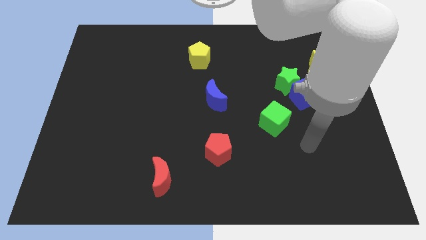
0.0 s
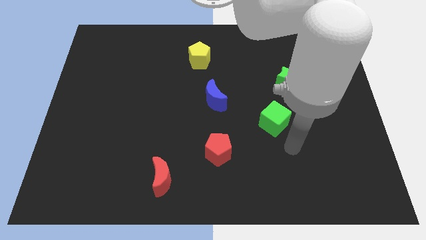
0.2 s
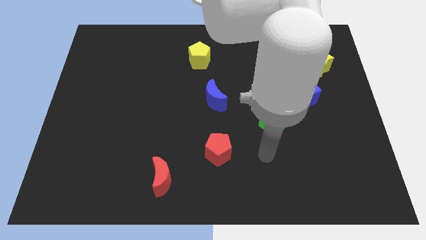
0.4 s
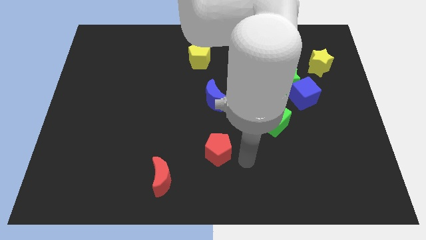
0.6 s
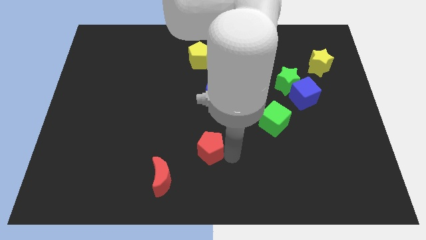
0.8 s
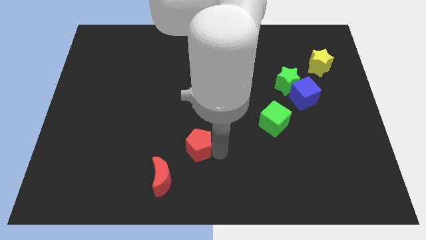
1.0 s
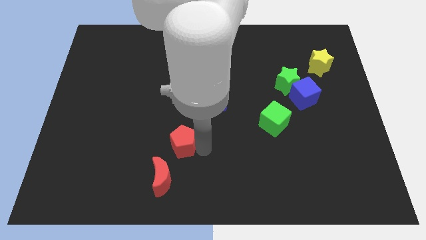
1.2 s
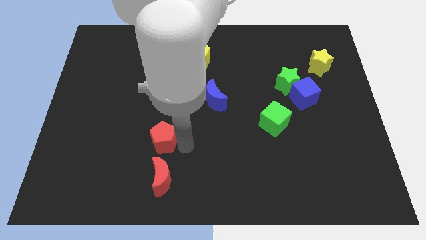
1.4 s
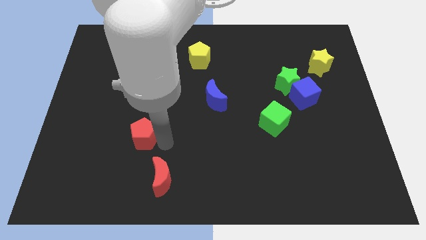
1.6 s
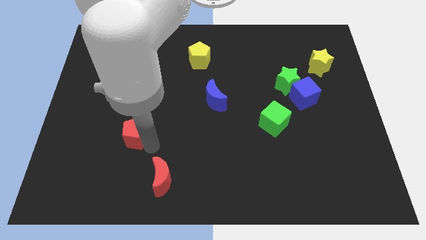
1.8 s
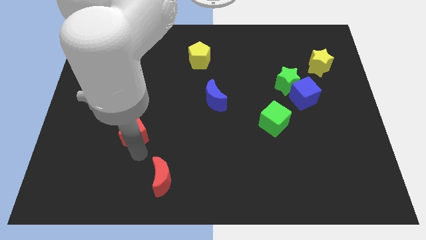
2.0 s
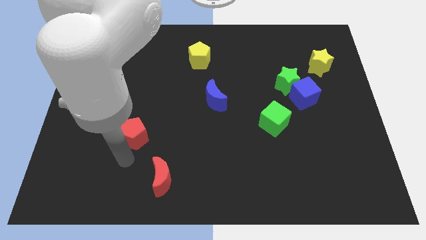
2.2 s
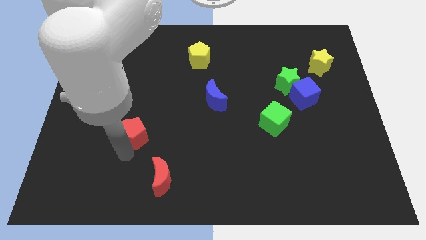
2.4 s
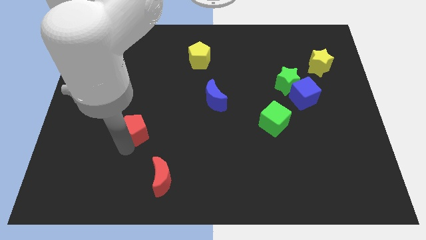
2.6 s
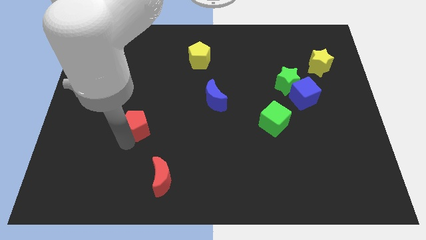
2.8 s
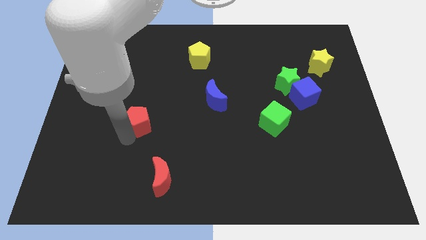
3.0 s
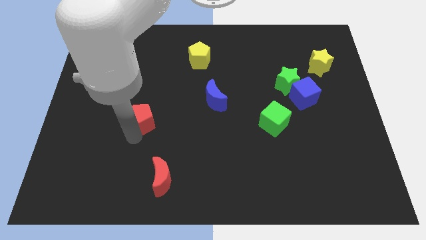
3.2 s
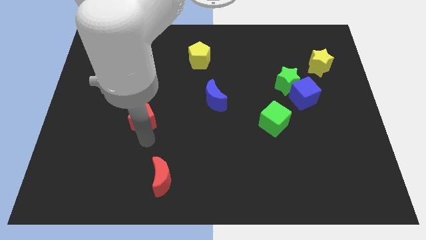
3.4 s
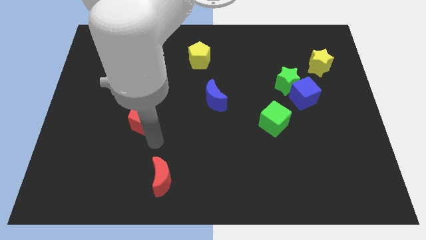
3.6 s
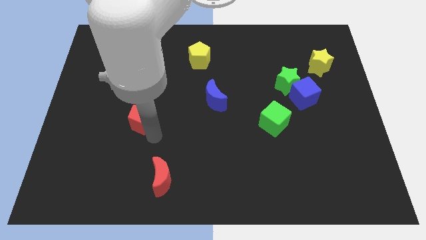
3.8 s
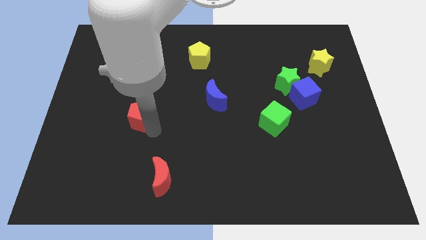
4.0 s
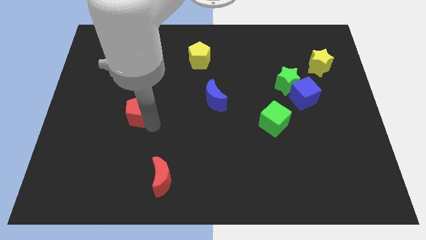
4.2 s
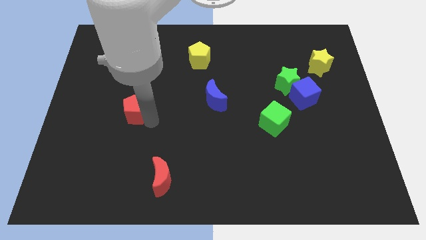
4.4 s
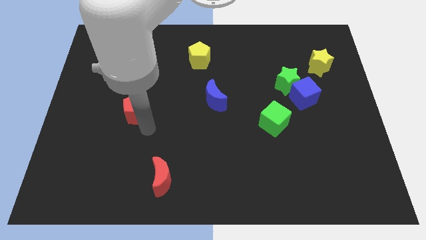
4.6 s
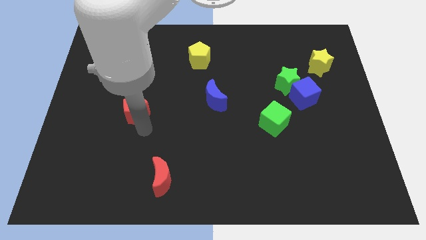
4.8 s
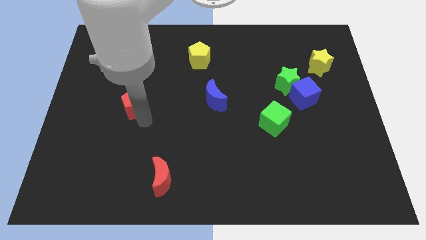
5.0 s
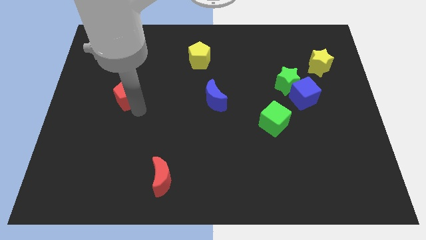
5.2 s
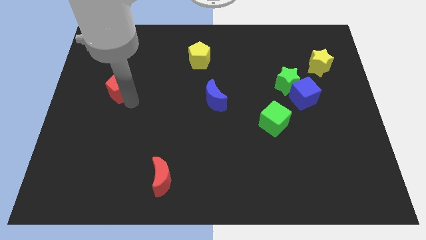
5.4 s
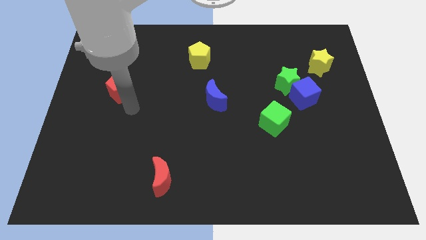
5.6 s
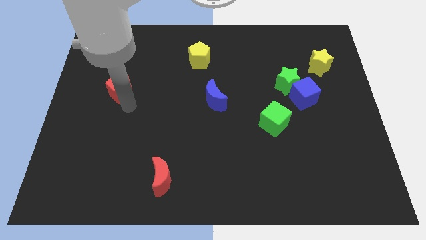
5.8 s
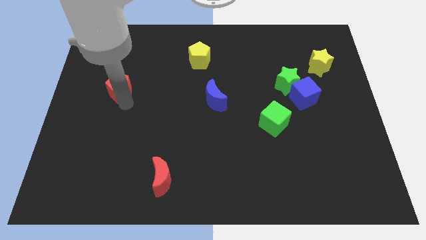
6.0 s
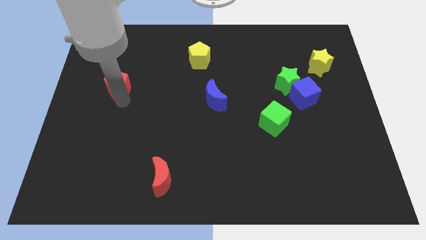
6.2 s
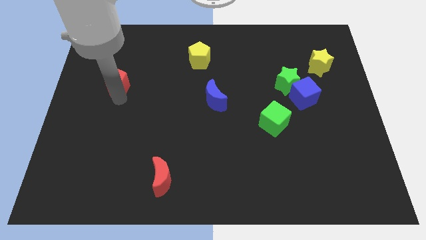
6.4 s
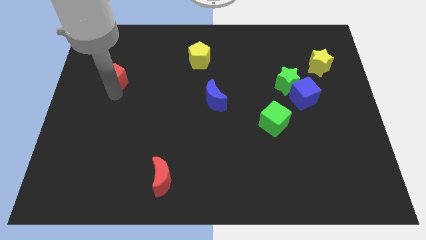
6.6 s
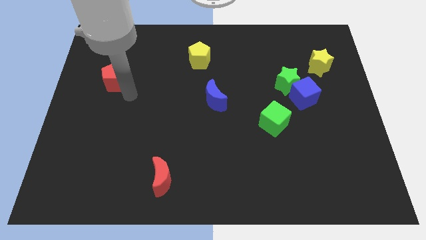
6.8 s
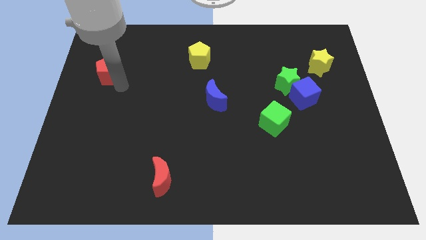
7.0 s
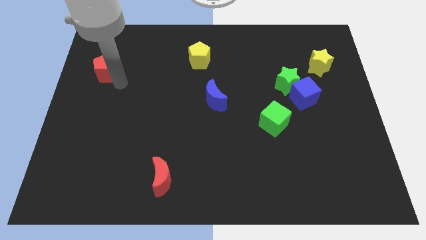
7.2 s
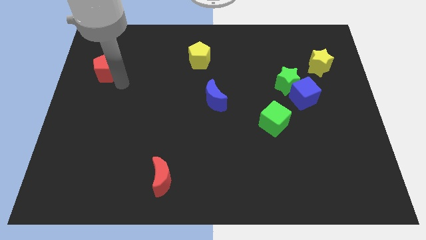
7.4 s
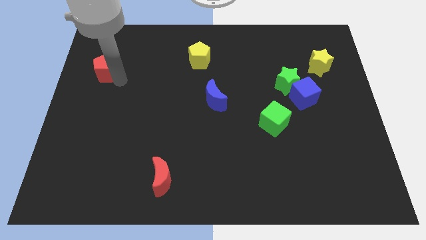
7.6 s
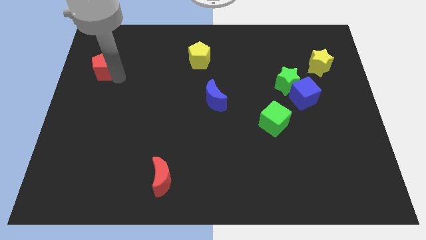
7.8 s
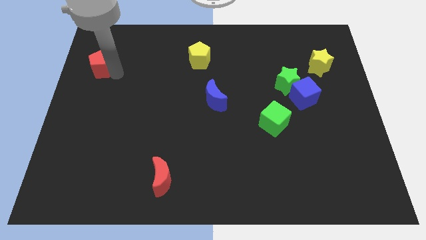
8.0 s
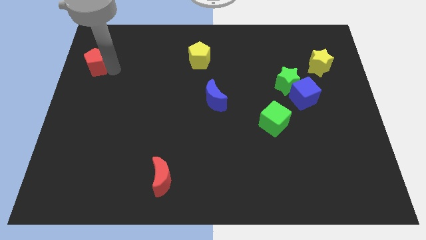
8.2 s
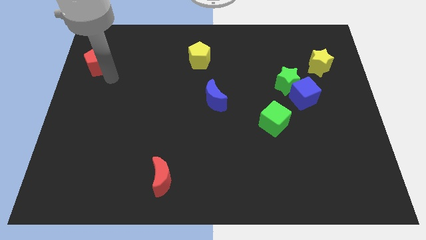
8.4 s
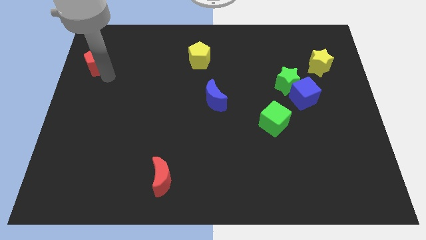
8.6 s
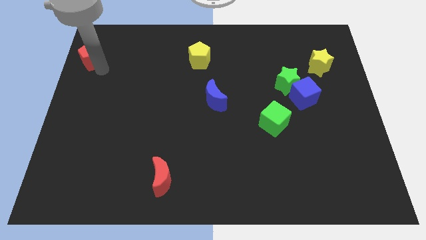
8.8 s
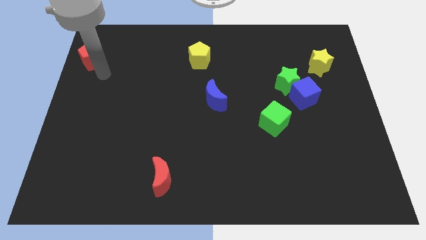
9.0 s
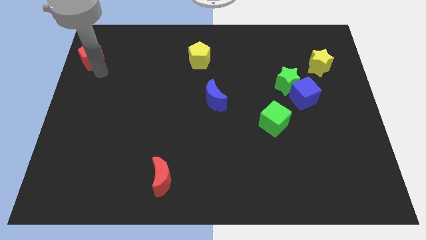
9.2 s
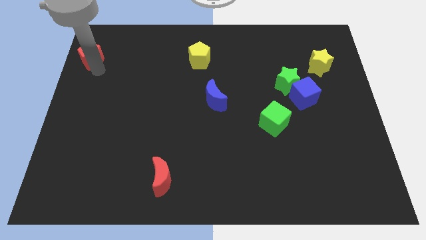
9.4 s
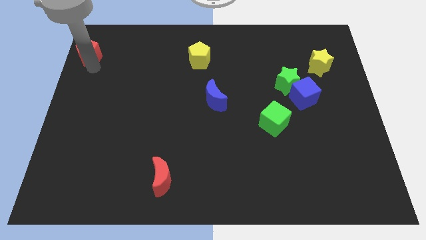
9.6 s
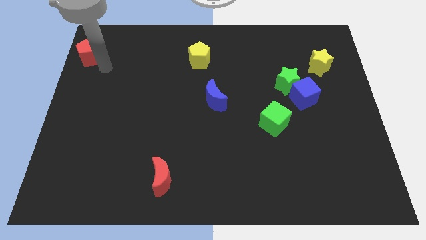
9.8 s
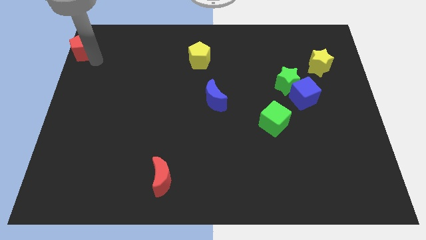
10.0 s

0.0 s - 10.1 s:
move the red pentagon to the top left corner

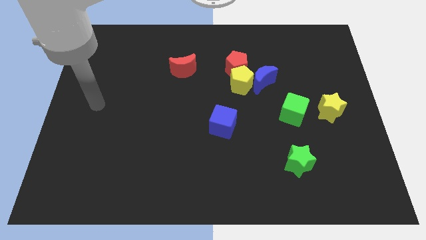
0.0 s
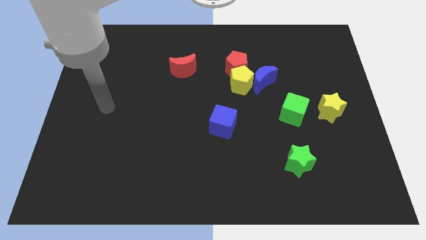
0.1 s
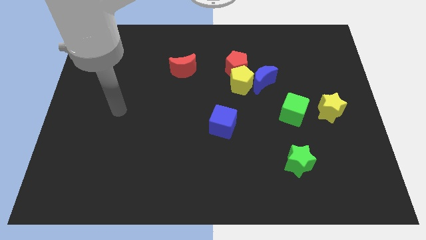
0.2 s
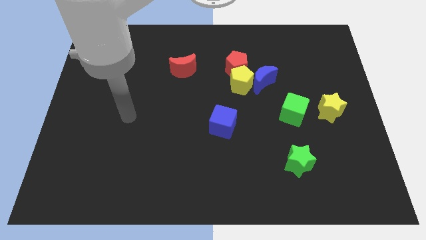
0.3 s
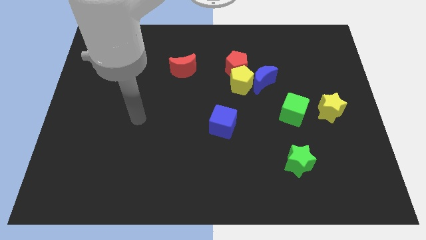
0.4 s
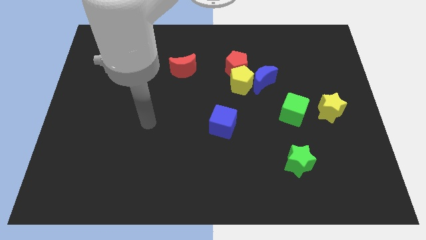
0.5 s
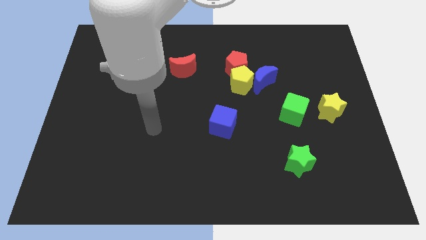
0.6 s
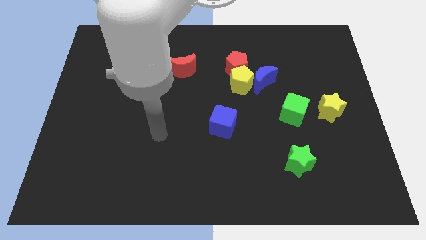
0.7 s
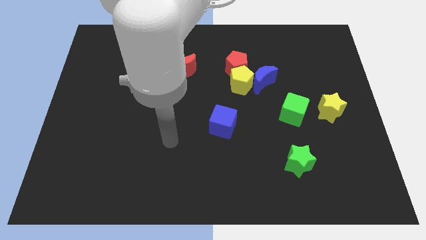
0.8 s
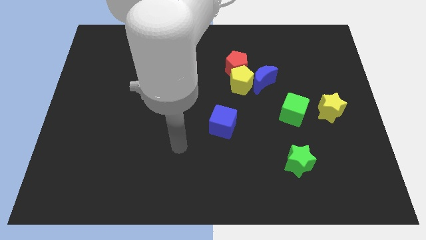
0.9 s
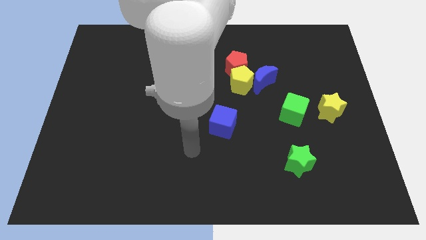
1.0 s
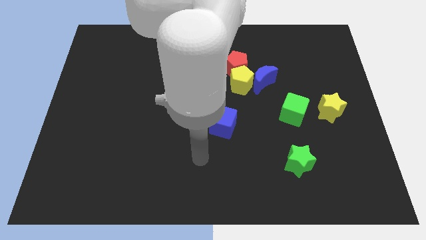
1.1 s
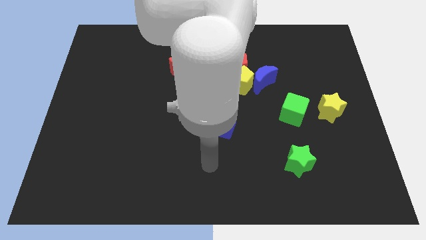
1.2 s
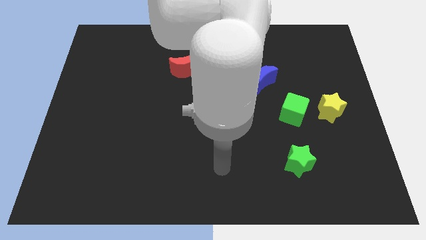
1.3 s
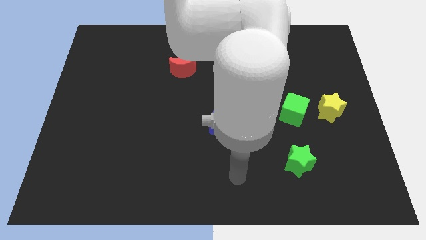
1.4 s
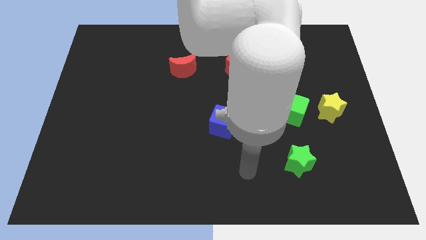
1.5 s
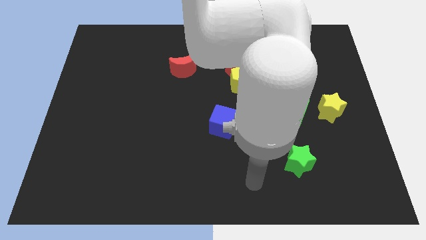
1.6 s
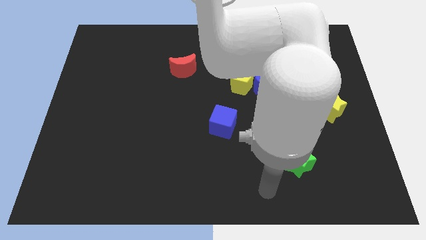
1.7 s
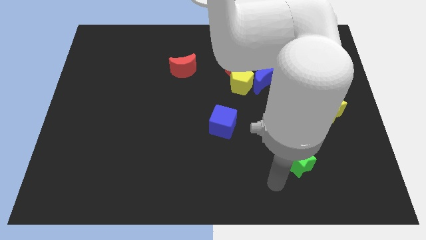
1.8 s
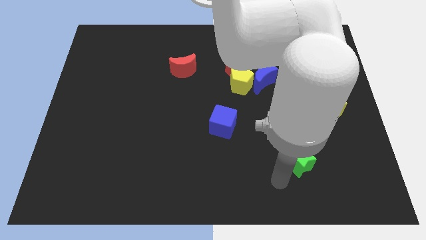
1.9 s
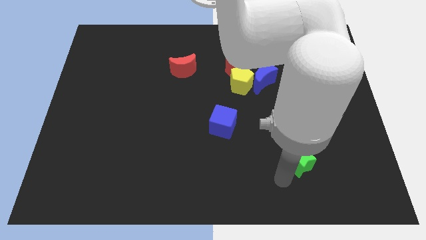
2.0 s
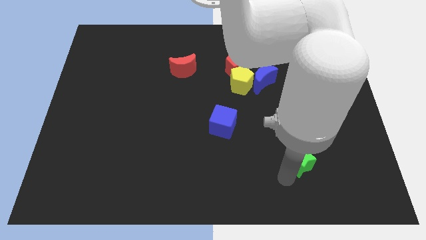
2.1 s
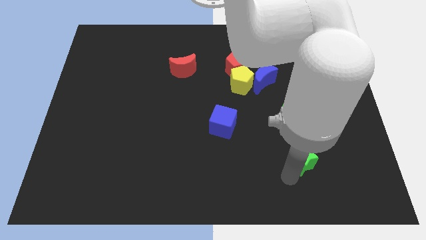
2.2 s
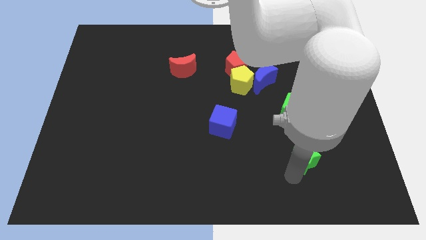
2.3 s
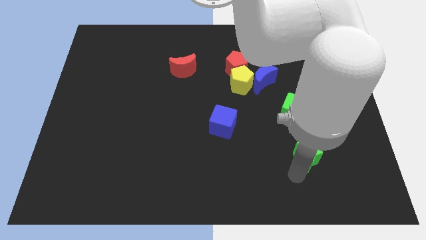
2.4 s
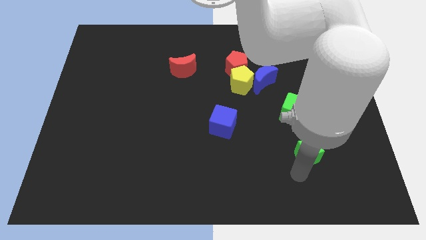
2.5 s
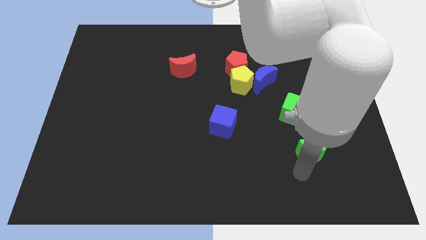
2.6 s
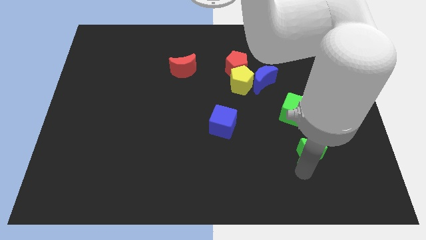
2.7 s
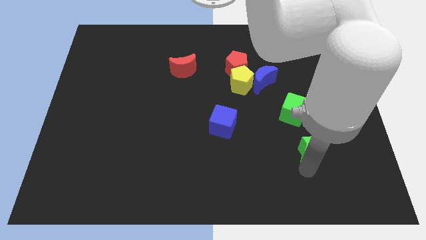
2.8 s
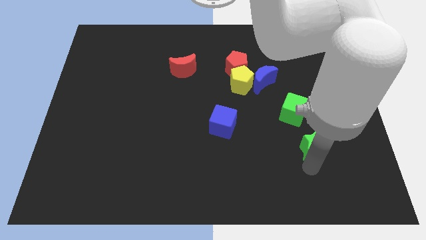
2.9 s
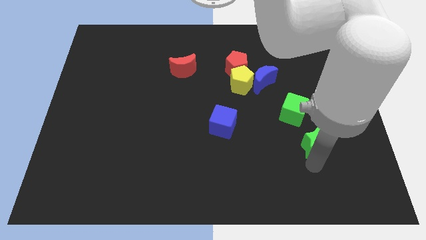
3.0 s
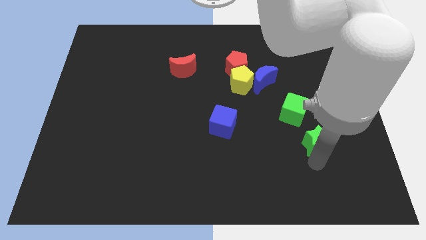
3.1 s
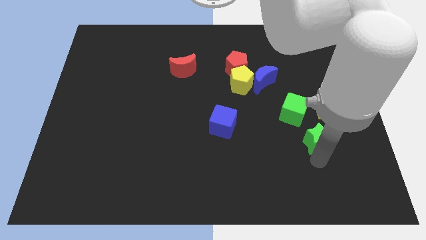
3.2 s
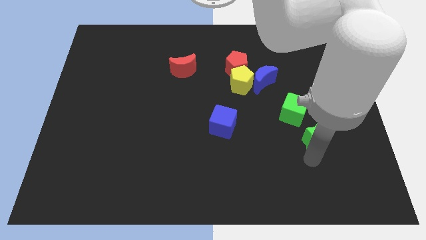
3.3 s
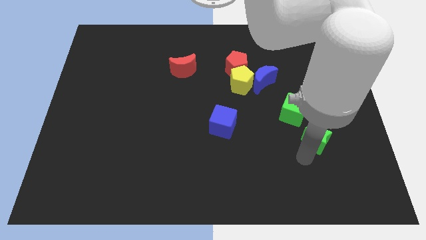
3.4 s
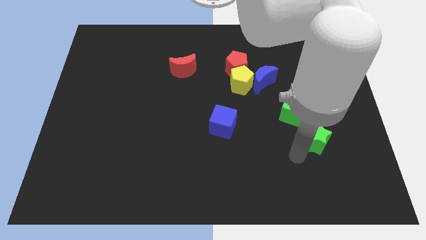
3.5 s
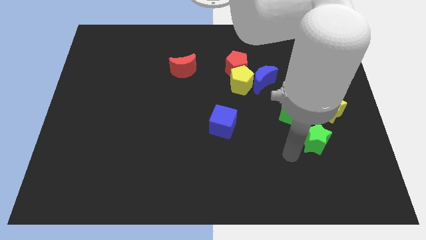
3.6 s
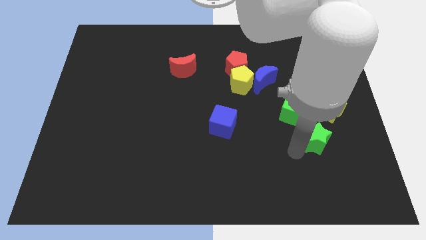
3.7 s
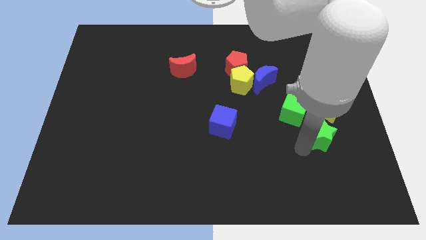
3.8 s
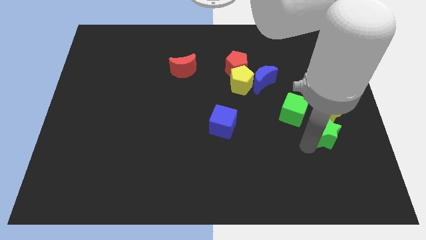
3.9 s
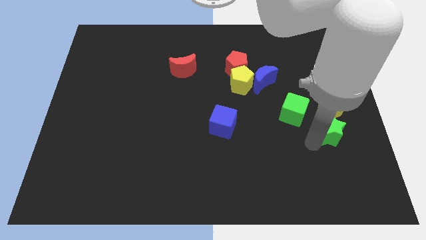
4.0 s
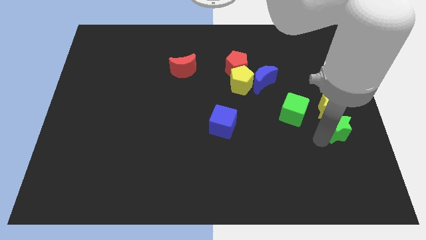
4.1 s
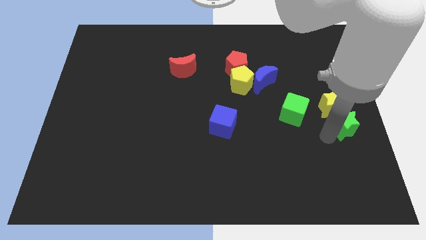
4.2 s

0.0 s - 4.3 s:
move the green star to the right side of the board
